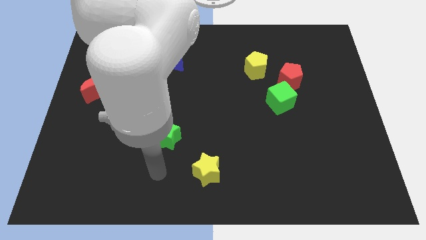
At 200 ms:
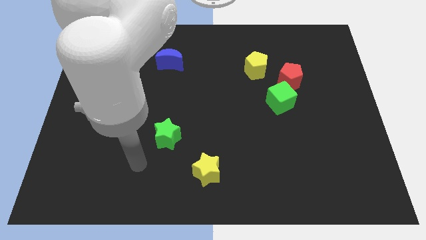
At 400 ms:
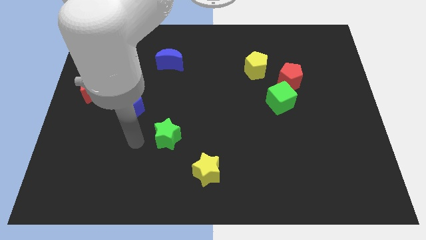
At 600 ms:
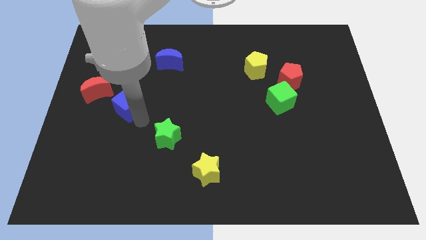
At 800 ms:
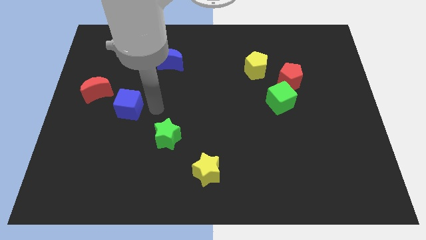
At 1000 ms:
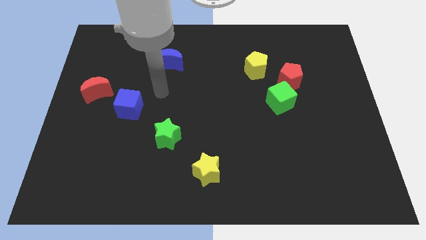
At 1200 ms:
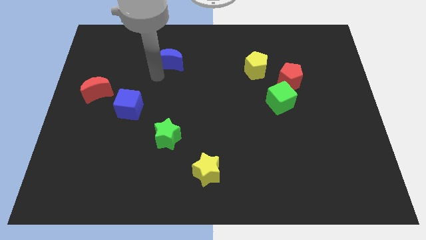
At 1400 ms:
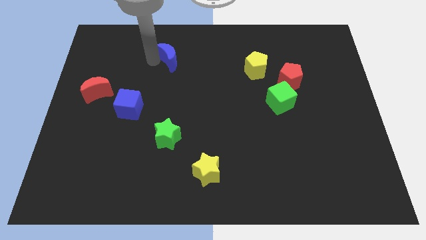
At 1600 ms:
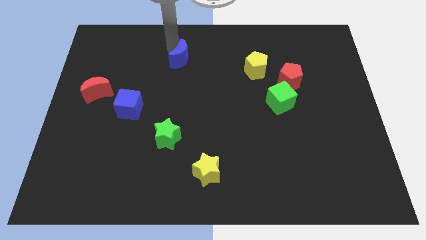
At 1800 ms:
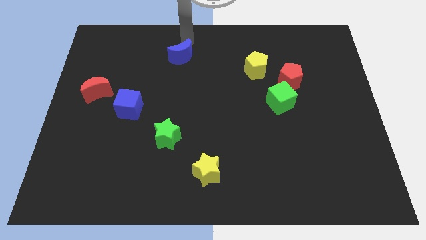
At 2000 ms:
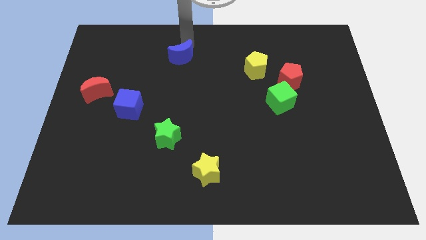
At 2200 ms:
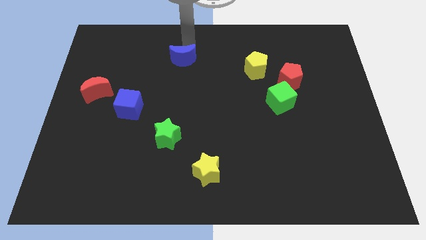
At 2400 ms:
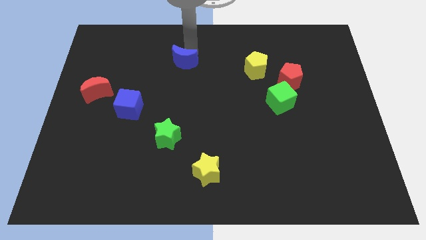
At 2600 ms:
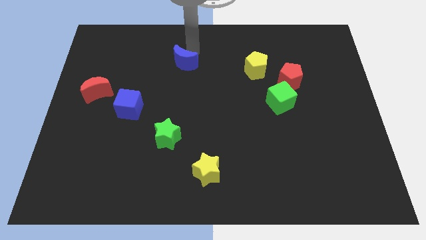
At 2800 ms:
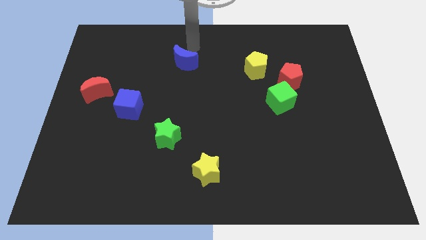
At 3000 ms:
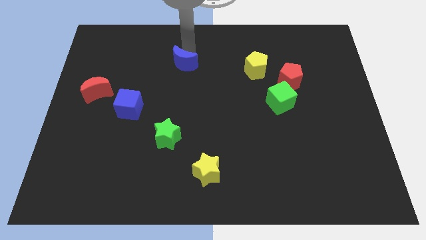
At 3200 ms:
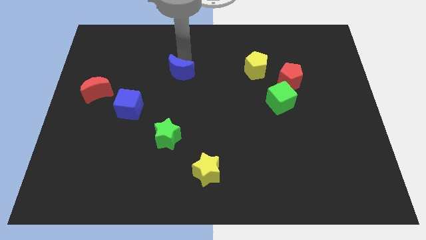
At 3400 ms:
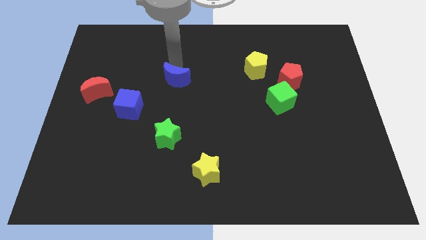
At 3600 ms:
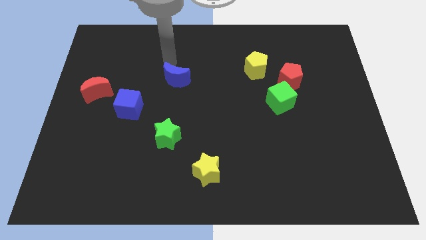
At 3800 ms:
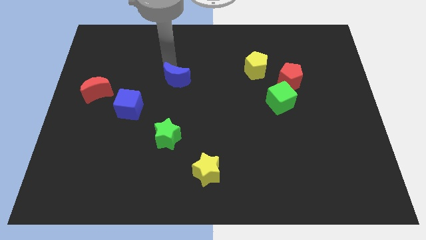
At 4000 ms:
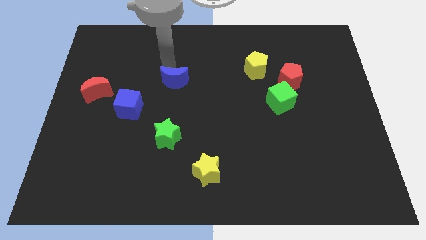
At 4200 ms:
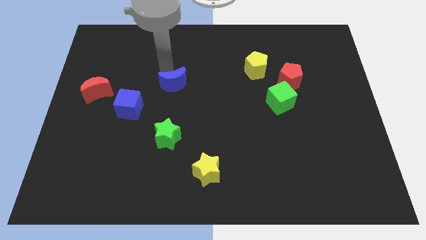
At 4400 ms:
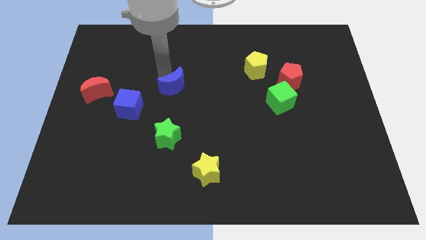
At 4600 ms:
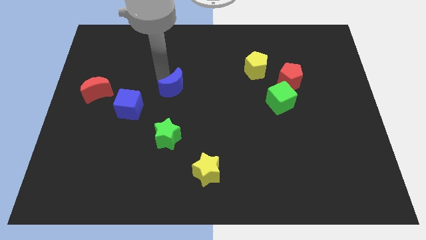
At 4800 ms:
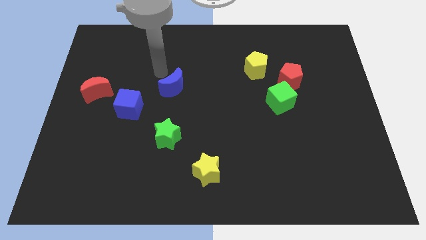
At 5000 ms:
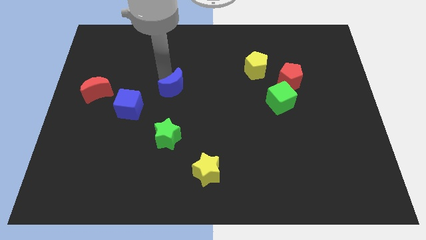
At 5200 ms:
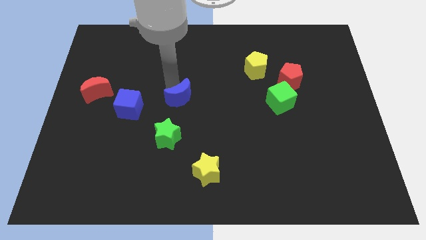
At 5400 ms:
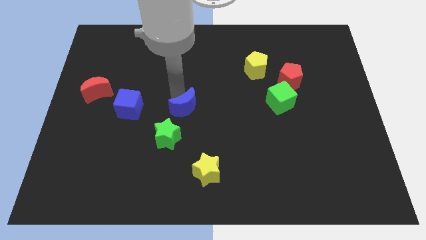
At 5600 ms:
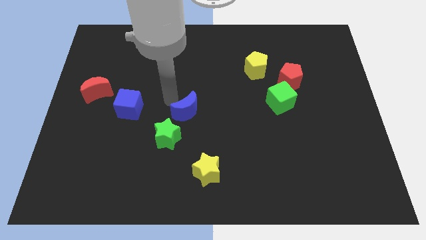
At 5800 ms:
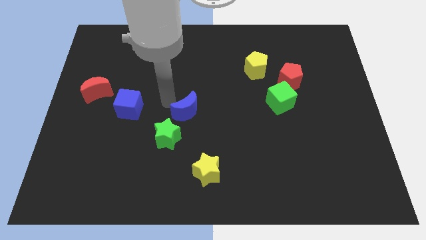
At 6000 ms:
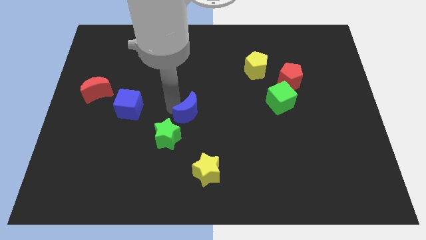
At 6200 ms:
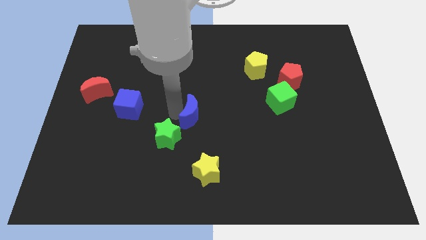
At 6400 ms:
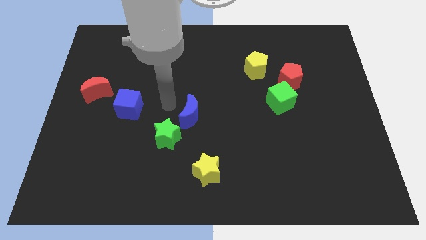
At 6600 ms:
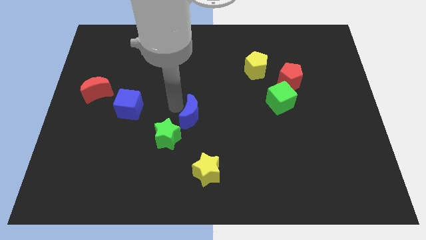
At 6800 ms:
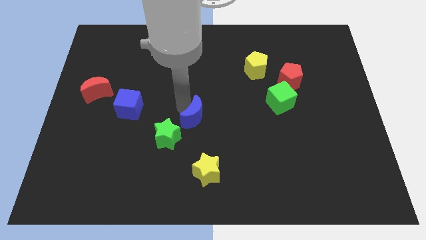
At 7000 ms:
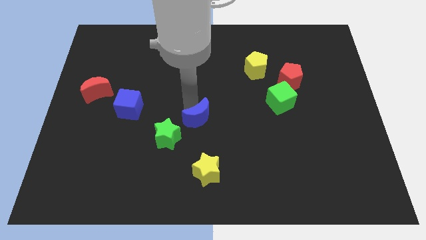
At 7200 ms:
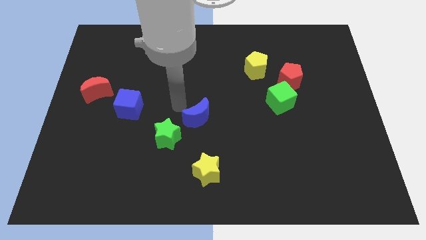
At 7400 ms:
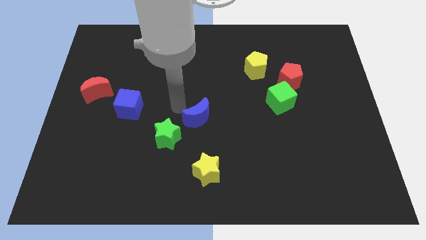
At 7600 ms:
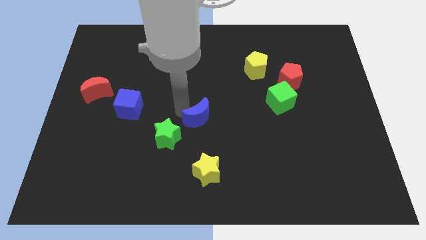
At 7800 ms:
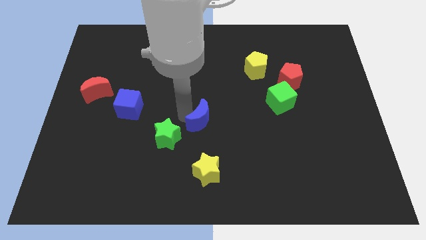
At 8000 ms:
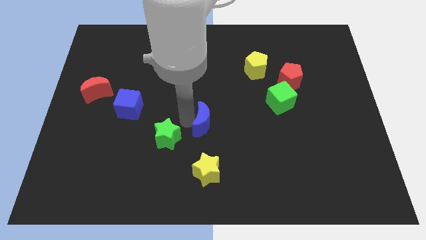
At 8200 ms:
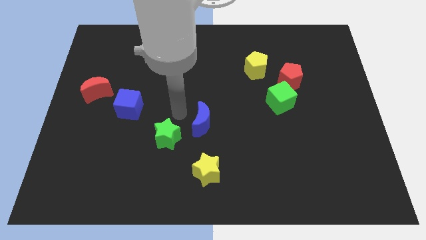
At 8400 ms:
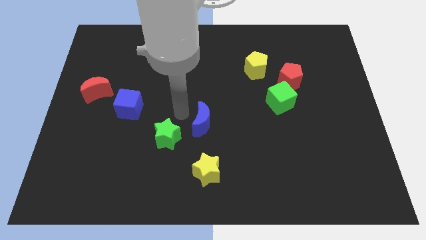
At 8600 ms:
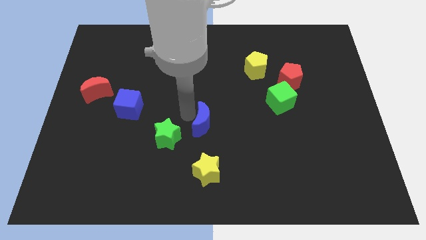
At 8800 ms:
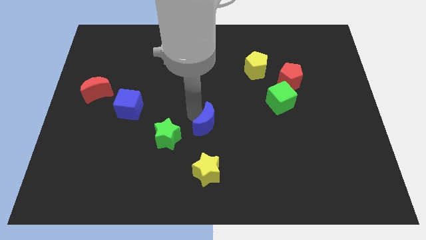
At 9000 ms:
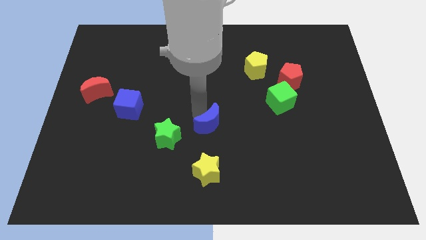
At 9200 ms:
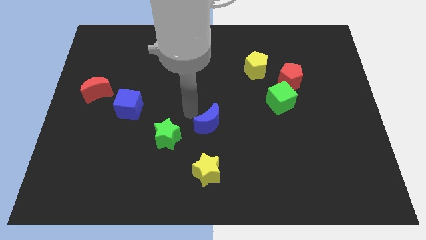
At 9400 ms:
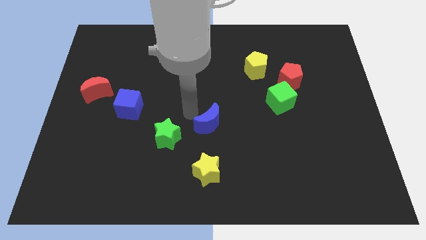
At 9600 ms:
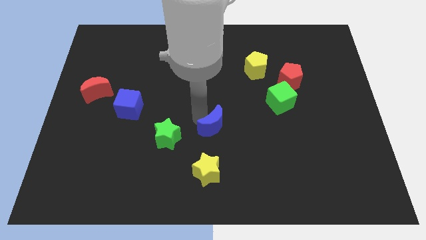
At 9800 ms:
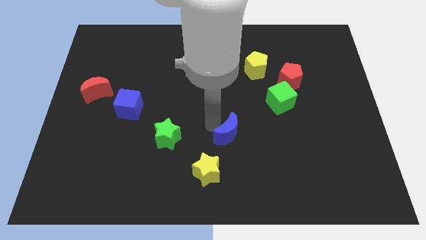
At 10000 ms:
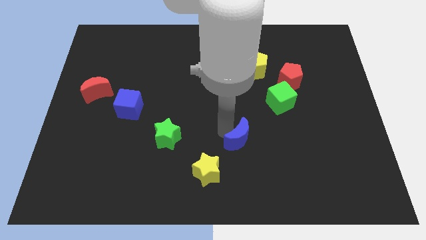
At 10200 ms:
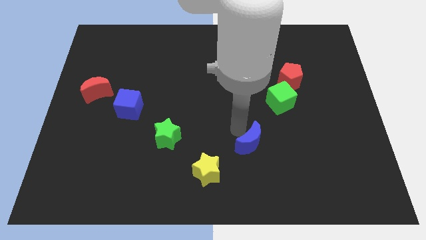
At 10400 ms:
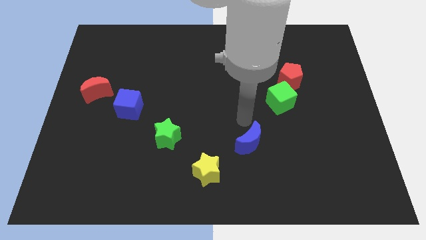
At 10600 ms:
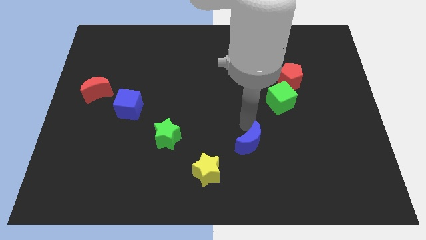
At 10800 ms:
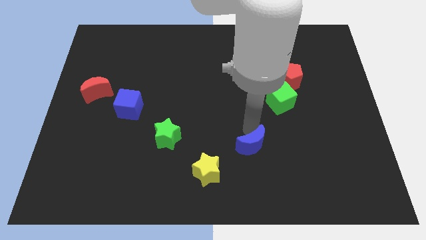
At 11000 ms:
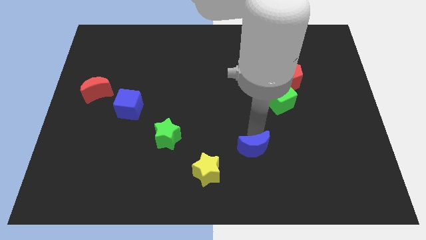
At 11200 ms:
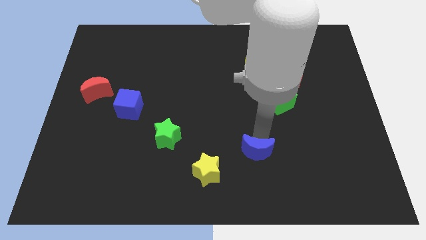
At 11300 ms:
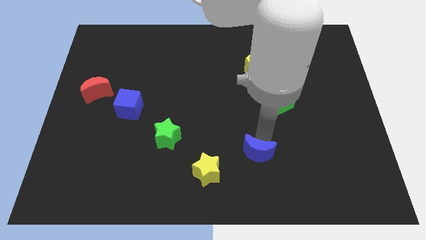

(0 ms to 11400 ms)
push the blue moon to the right of the yellow star

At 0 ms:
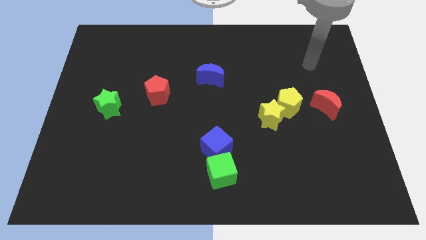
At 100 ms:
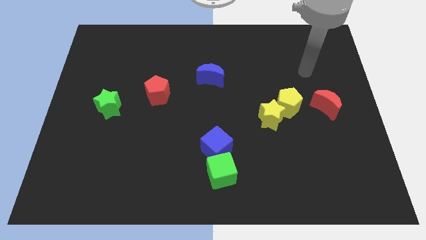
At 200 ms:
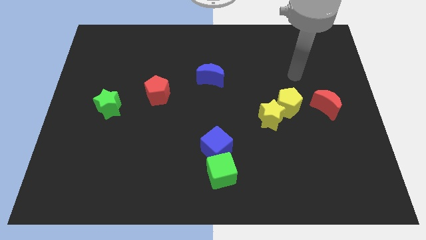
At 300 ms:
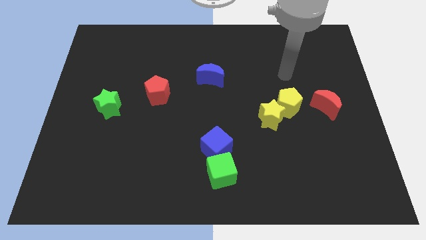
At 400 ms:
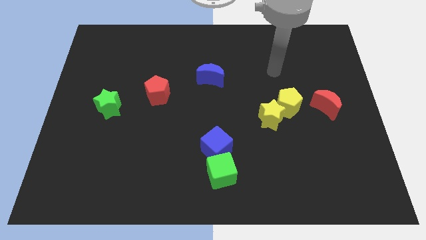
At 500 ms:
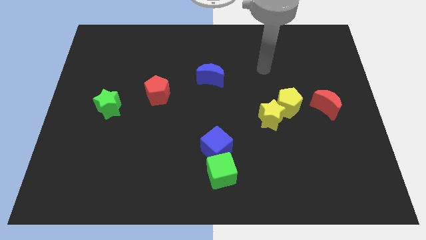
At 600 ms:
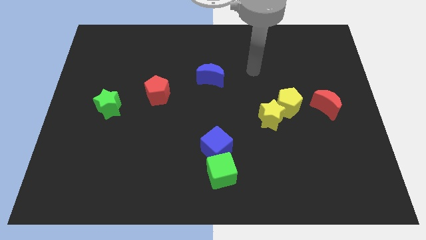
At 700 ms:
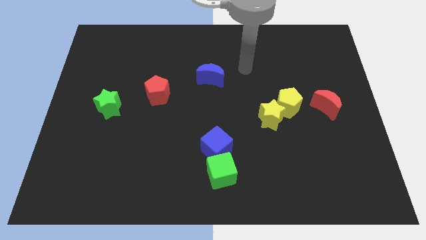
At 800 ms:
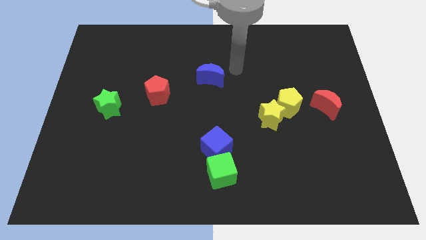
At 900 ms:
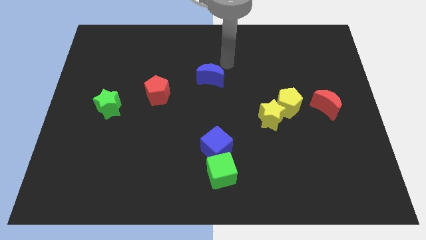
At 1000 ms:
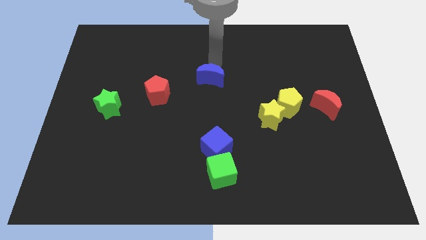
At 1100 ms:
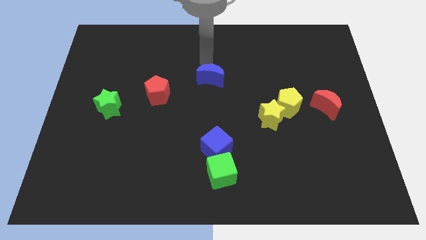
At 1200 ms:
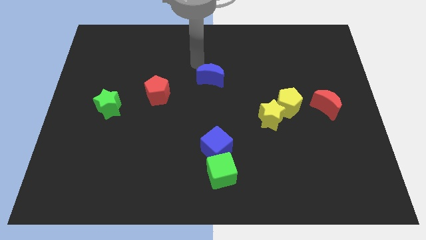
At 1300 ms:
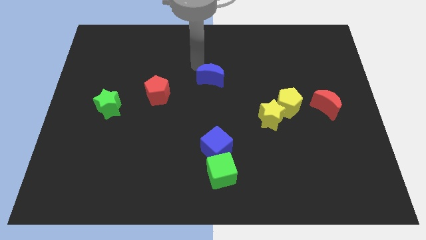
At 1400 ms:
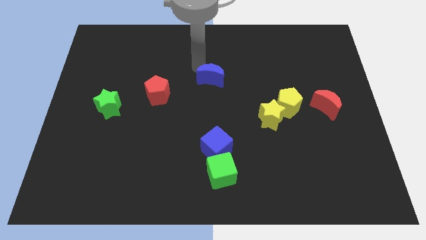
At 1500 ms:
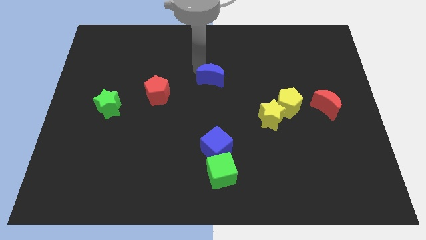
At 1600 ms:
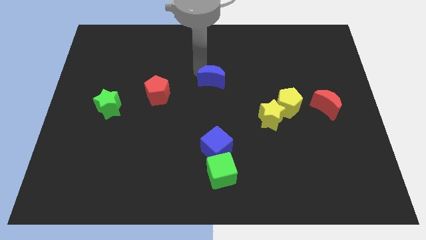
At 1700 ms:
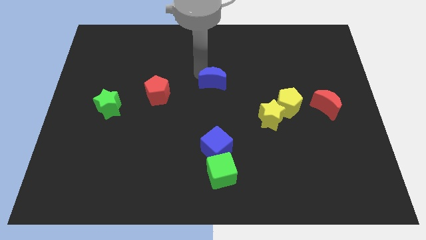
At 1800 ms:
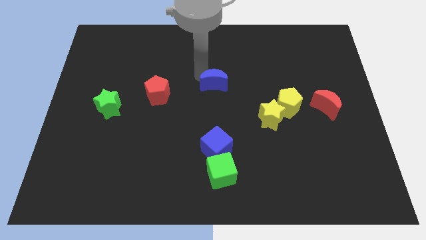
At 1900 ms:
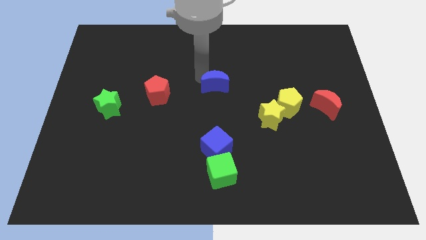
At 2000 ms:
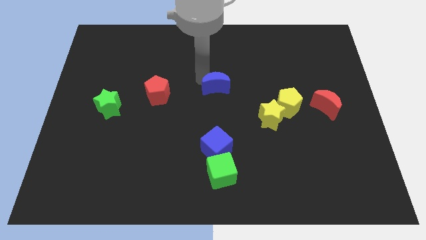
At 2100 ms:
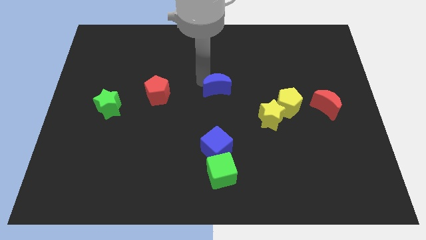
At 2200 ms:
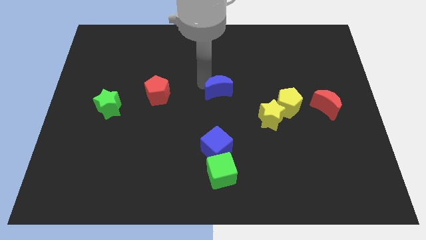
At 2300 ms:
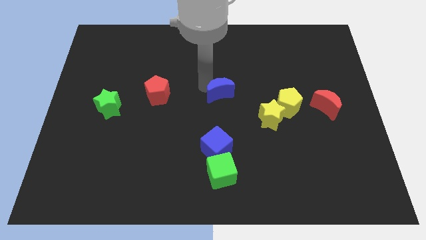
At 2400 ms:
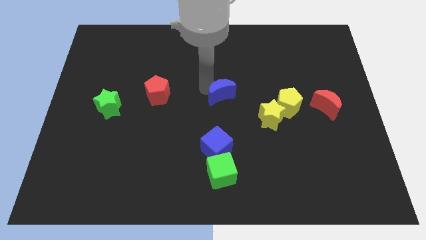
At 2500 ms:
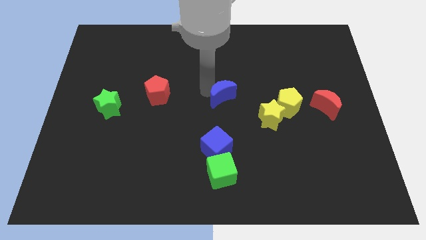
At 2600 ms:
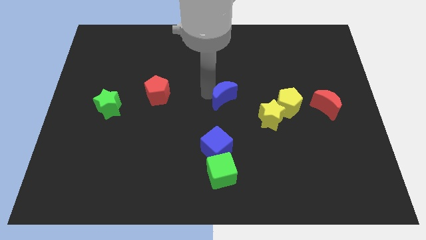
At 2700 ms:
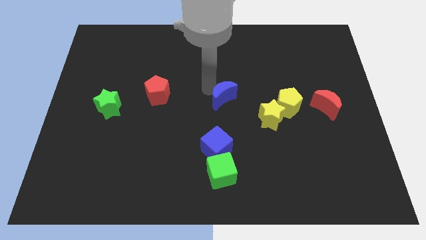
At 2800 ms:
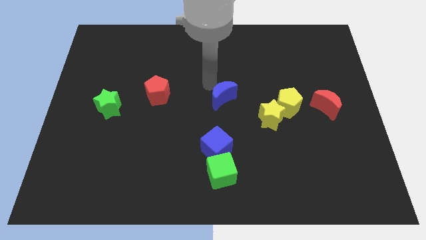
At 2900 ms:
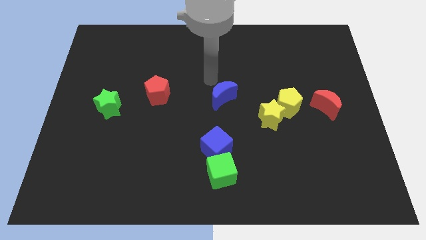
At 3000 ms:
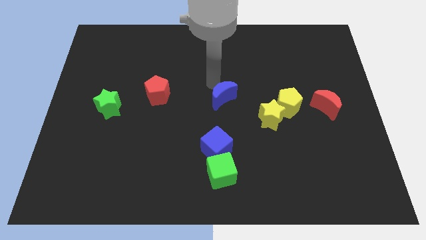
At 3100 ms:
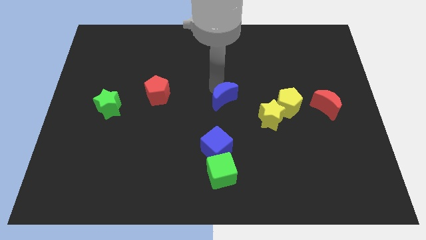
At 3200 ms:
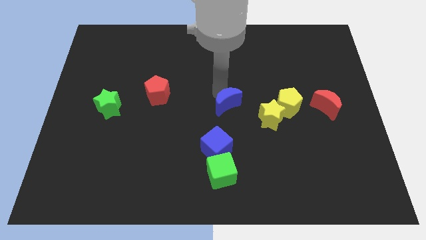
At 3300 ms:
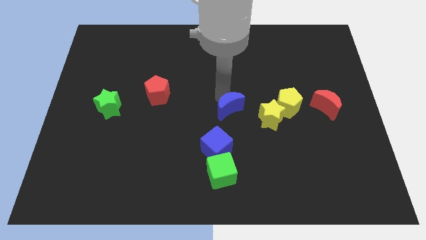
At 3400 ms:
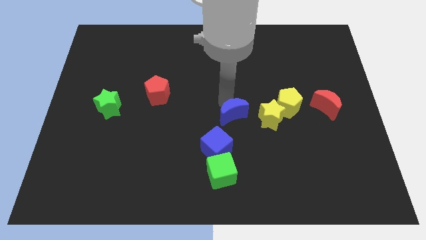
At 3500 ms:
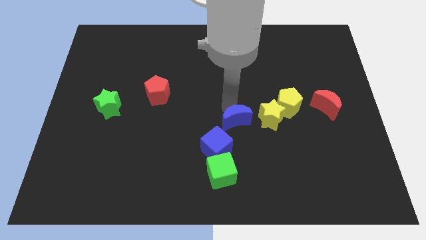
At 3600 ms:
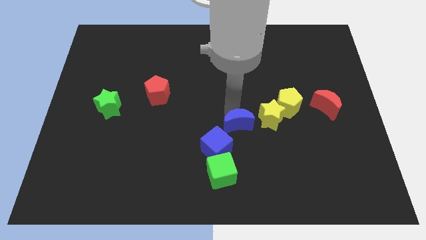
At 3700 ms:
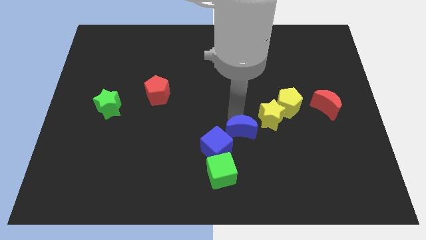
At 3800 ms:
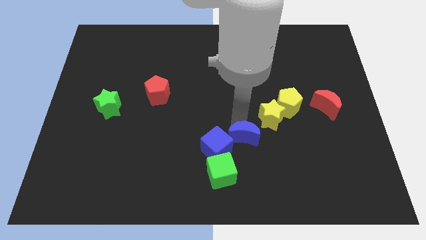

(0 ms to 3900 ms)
put the blue moon to the top right side of the green cube
